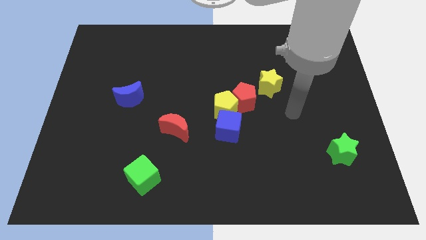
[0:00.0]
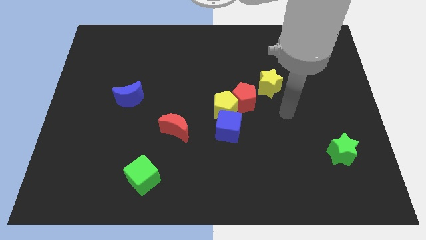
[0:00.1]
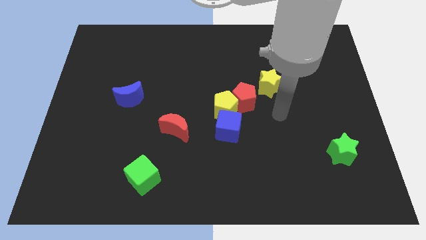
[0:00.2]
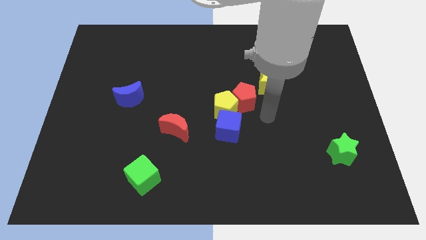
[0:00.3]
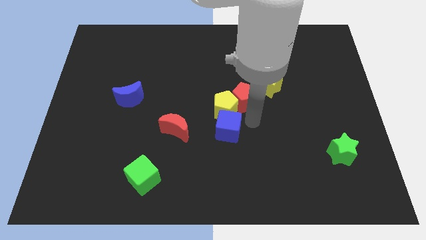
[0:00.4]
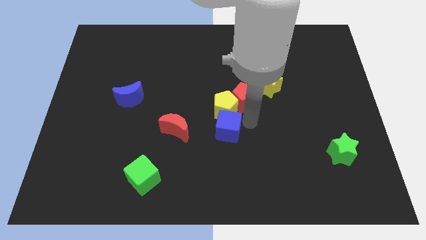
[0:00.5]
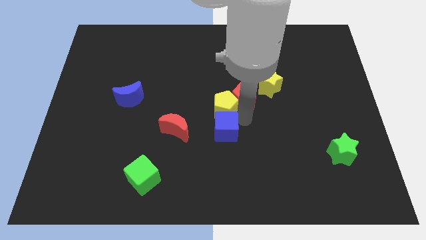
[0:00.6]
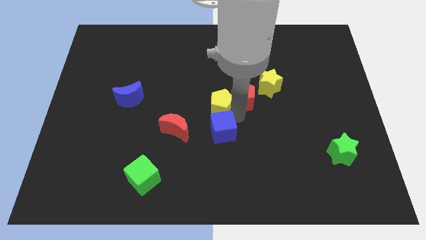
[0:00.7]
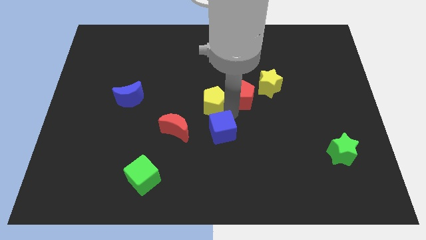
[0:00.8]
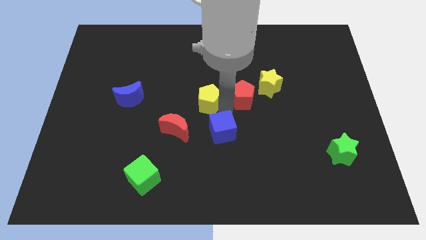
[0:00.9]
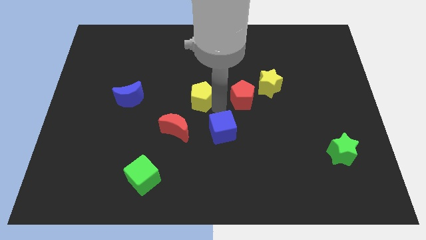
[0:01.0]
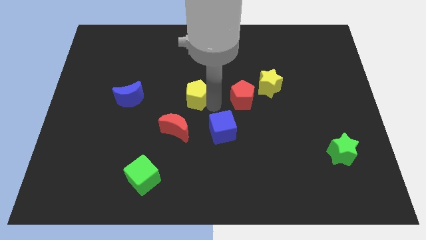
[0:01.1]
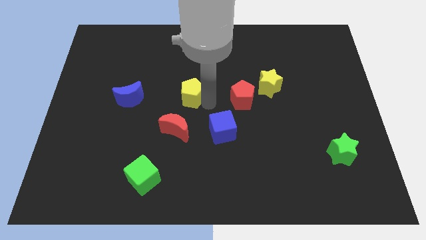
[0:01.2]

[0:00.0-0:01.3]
move the yellow pentagon away from the red pentagon and blue cube

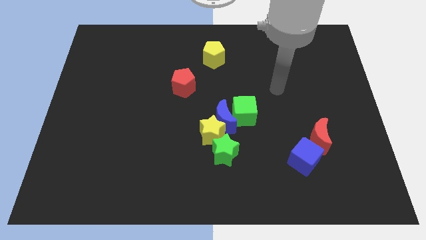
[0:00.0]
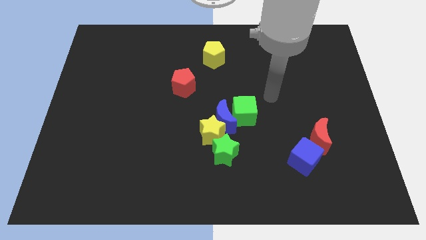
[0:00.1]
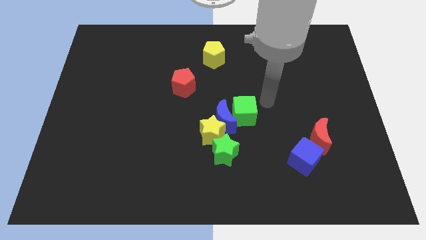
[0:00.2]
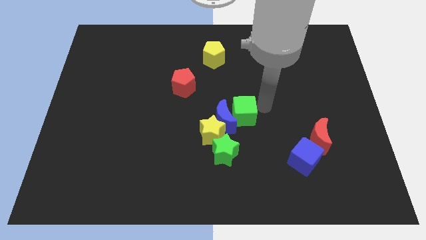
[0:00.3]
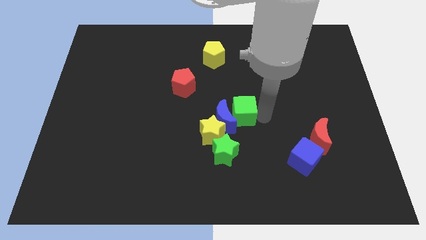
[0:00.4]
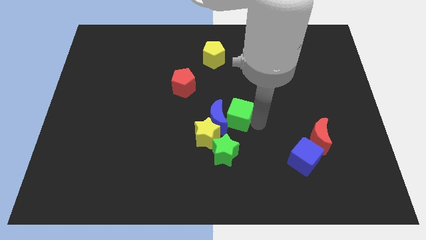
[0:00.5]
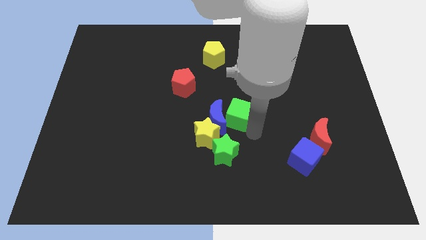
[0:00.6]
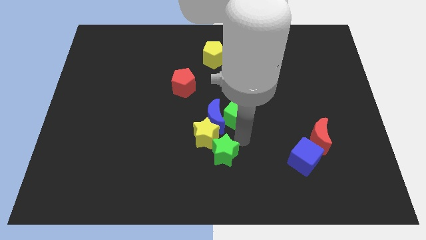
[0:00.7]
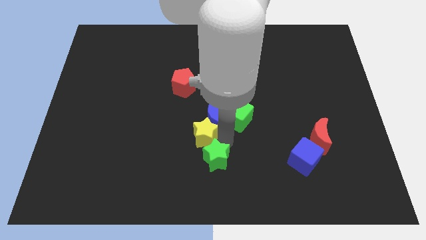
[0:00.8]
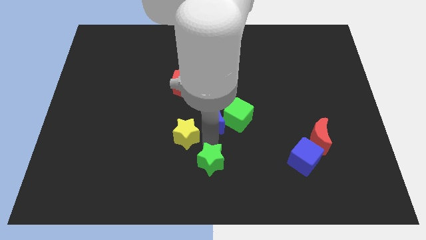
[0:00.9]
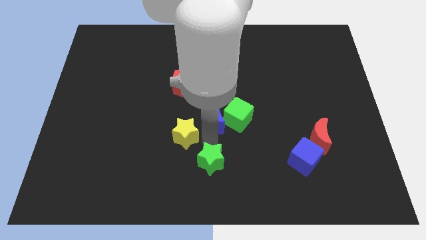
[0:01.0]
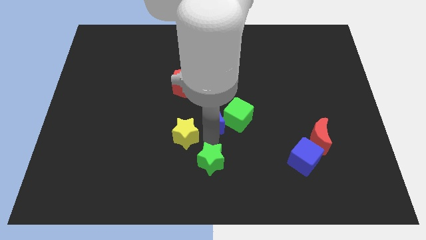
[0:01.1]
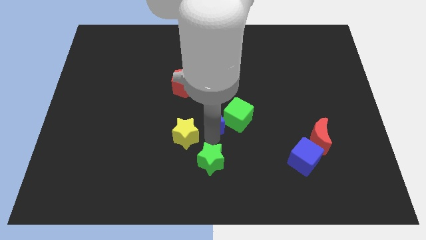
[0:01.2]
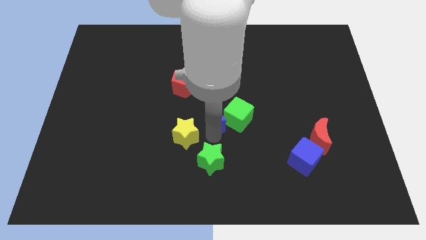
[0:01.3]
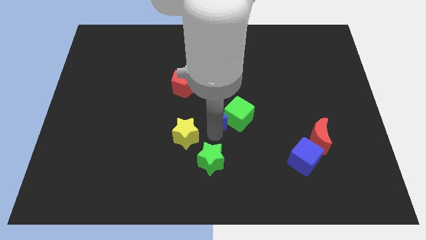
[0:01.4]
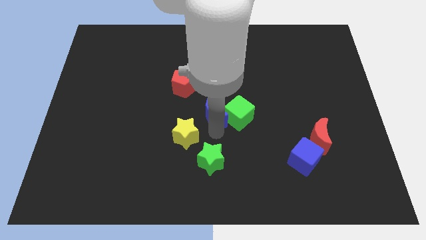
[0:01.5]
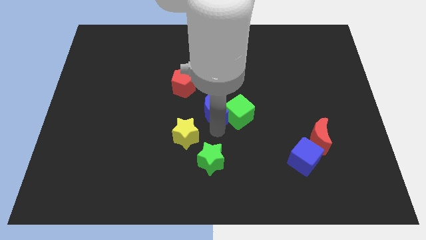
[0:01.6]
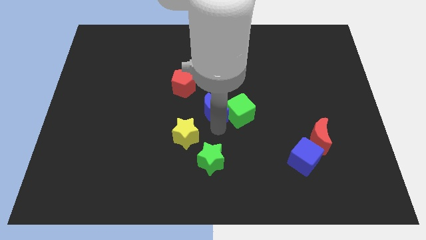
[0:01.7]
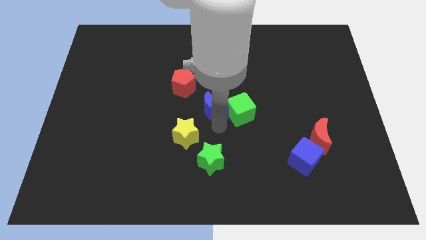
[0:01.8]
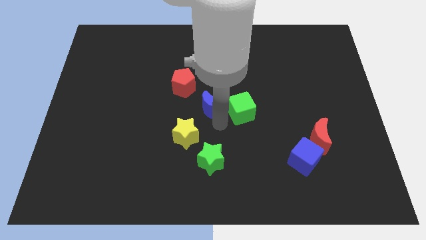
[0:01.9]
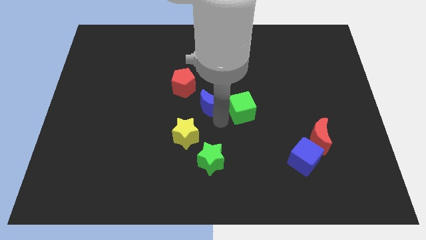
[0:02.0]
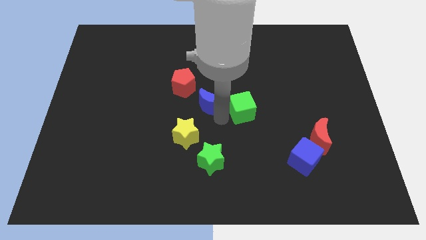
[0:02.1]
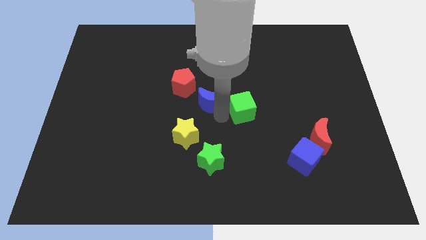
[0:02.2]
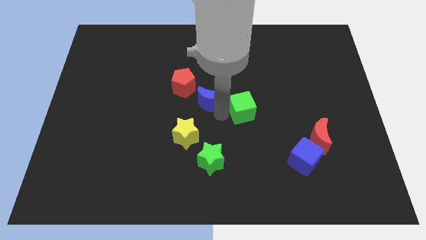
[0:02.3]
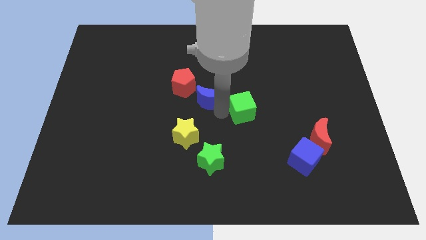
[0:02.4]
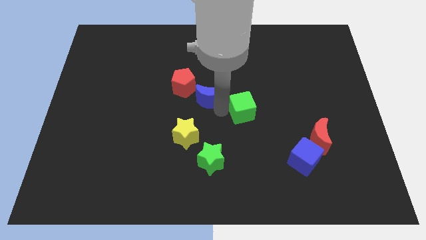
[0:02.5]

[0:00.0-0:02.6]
move the blue moon away from the yellow star, green cube, and green star

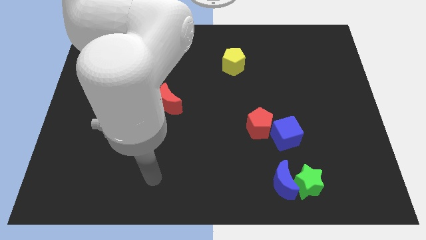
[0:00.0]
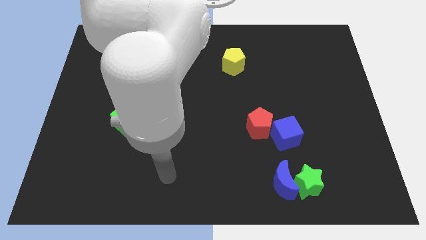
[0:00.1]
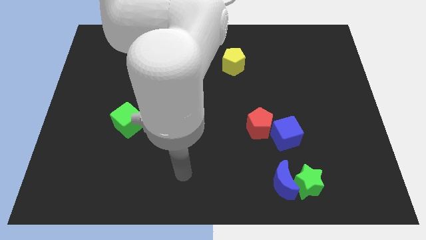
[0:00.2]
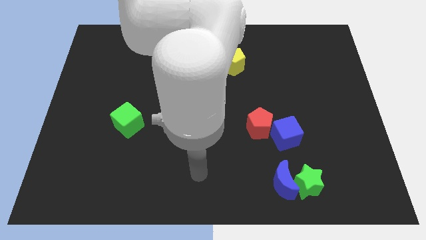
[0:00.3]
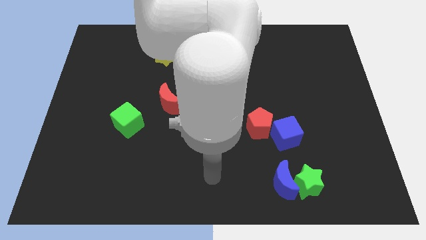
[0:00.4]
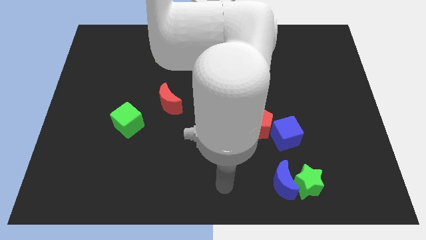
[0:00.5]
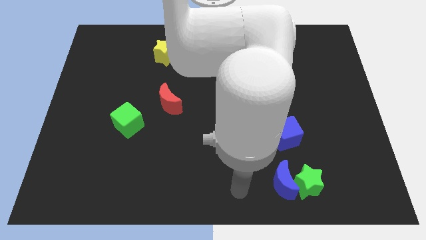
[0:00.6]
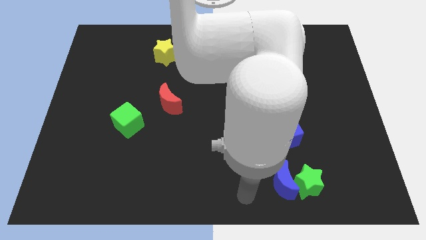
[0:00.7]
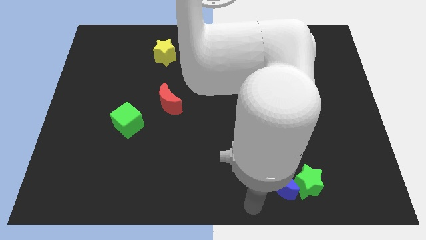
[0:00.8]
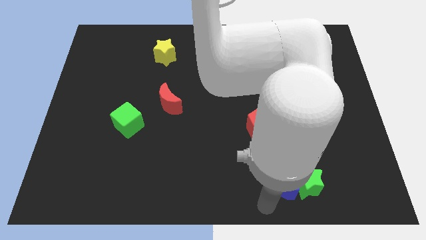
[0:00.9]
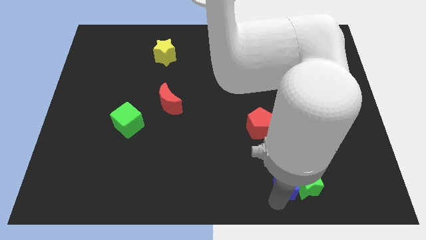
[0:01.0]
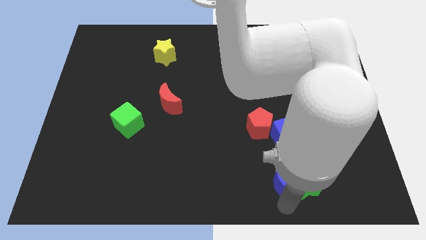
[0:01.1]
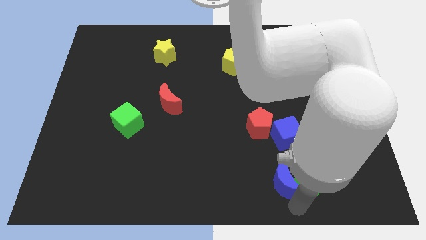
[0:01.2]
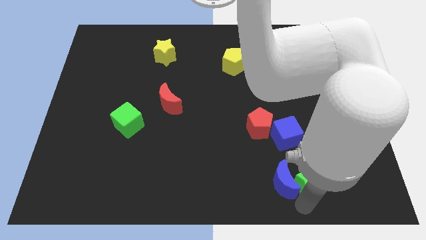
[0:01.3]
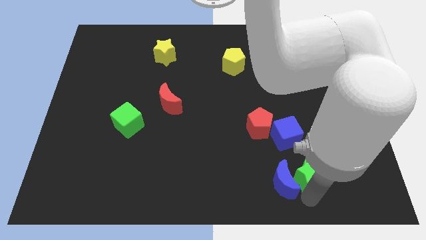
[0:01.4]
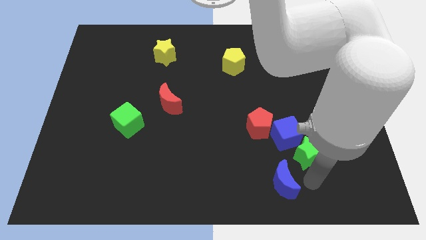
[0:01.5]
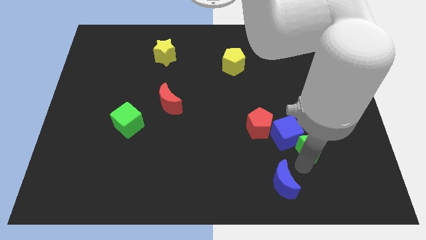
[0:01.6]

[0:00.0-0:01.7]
move the blue moon away from the green star

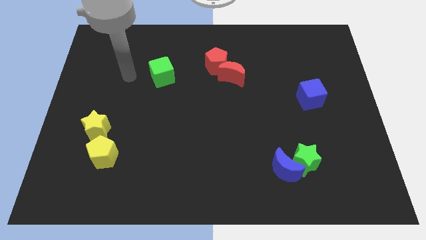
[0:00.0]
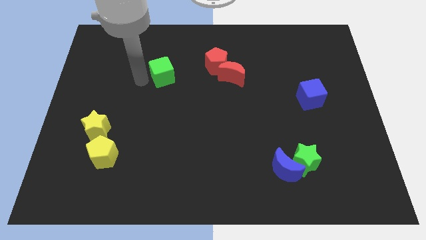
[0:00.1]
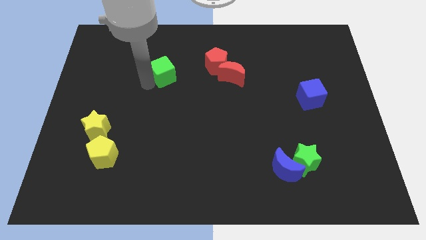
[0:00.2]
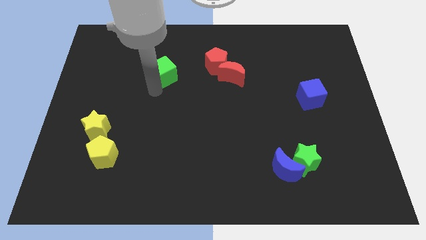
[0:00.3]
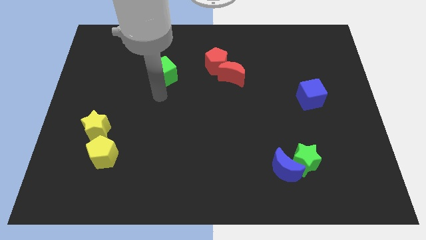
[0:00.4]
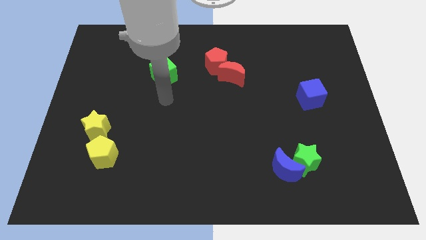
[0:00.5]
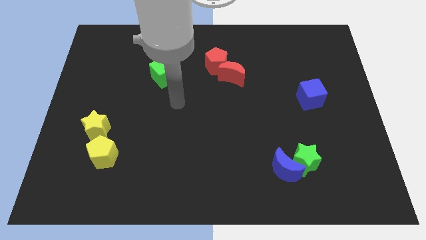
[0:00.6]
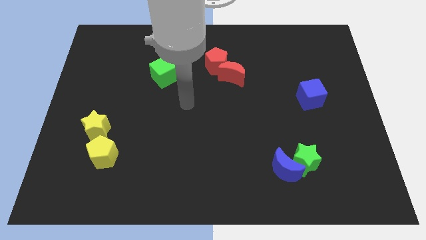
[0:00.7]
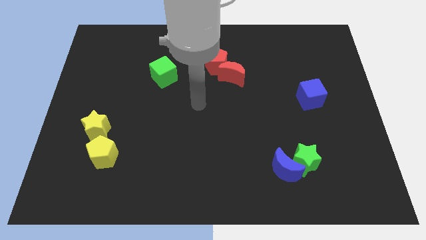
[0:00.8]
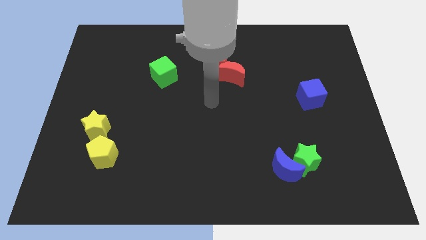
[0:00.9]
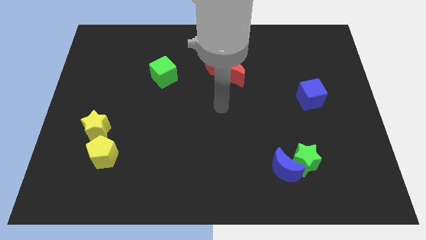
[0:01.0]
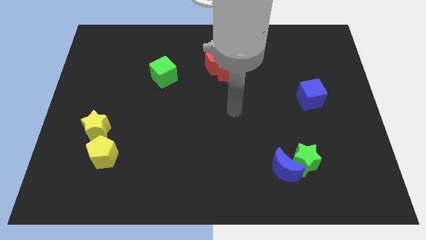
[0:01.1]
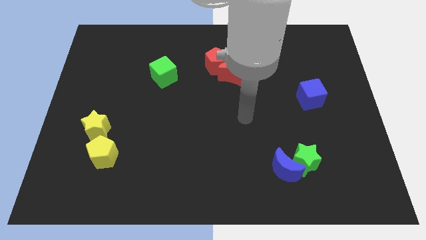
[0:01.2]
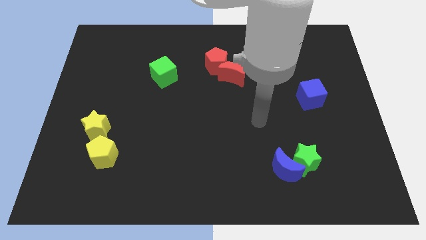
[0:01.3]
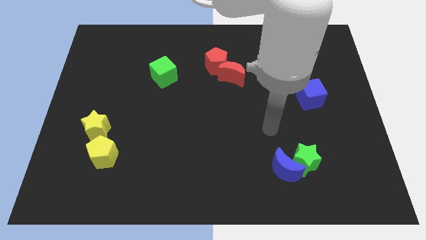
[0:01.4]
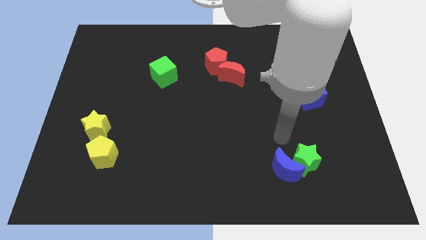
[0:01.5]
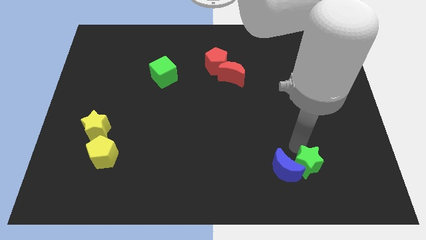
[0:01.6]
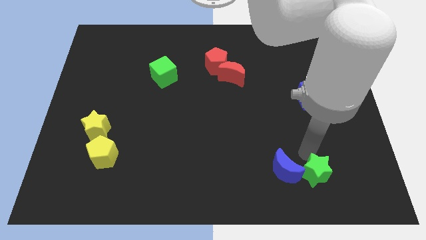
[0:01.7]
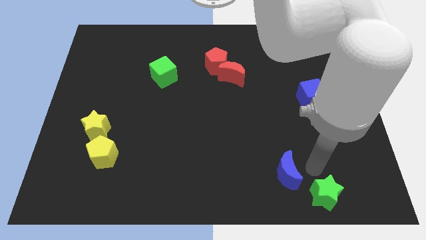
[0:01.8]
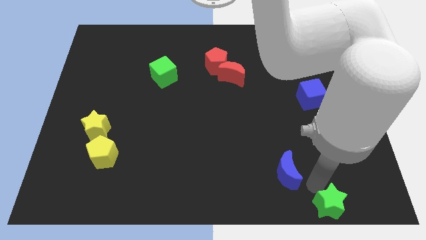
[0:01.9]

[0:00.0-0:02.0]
separate the blue moon from the green star

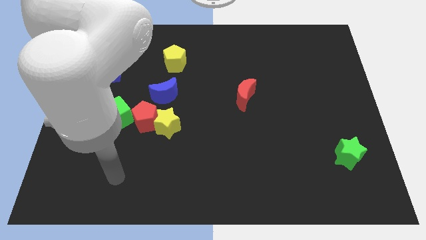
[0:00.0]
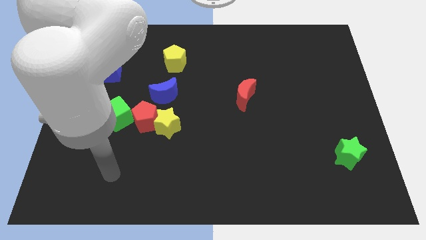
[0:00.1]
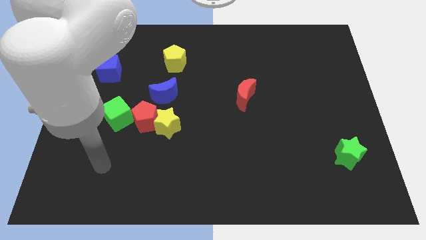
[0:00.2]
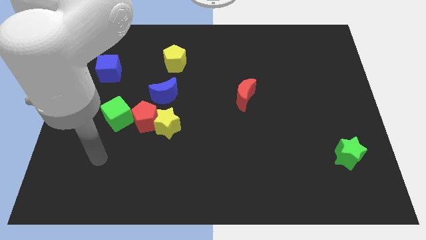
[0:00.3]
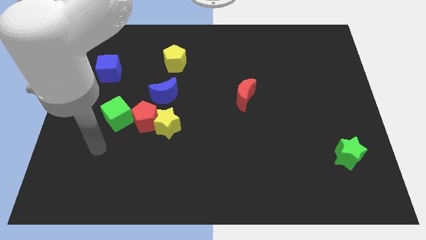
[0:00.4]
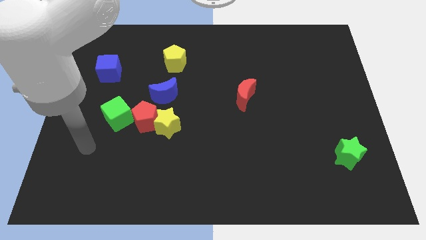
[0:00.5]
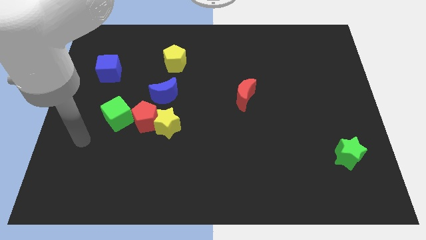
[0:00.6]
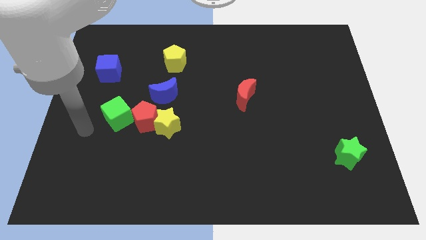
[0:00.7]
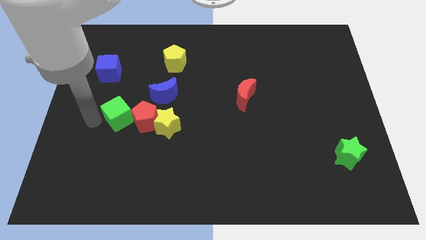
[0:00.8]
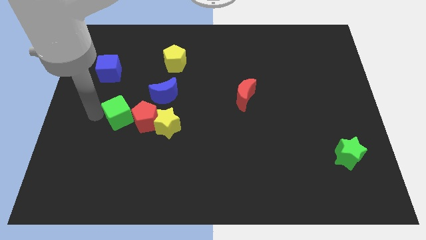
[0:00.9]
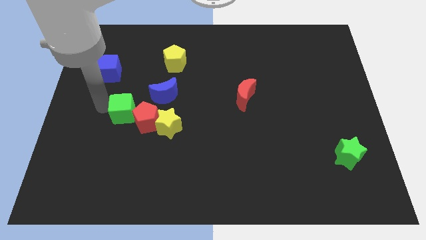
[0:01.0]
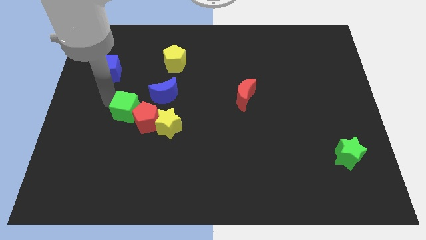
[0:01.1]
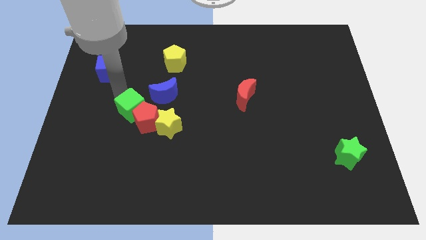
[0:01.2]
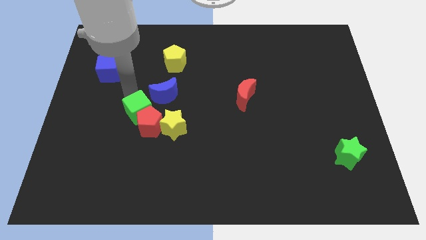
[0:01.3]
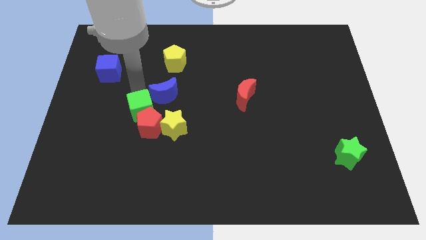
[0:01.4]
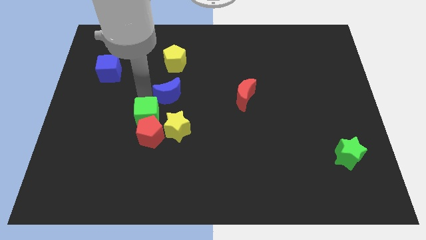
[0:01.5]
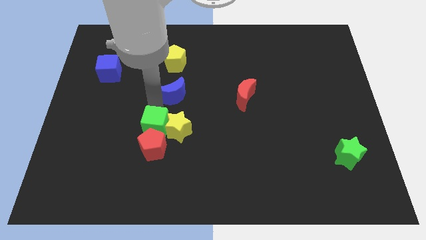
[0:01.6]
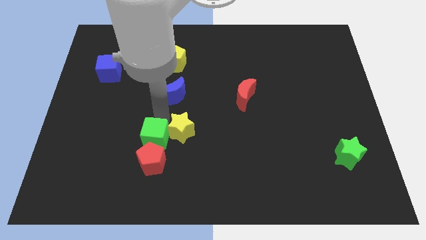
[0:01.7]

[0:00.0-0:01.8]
separate the red pentagon from the clump

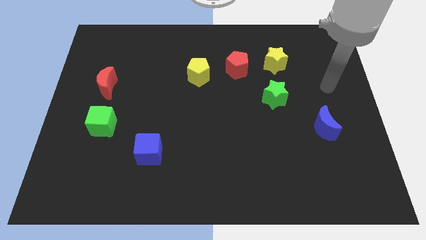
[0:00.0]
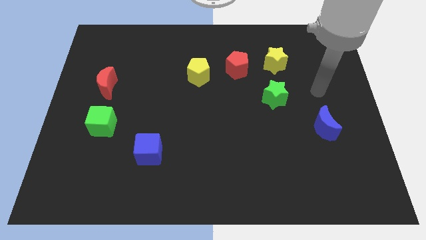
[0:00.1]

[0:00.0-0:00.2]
separate the yellow star from the red pentagon
